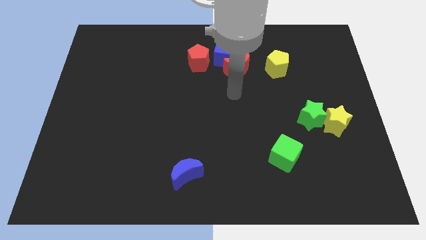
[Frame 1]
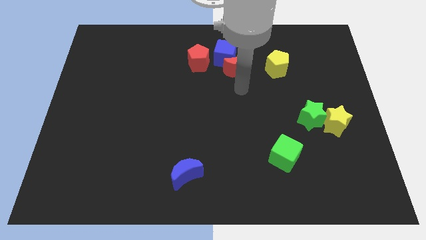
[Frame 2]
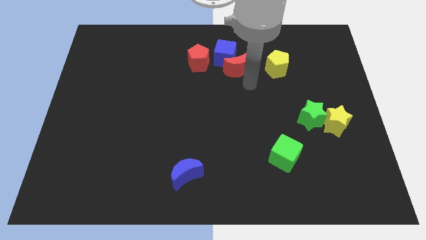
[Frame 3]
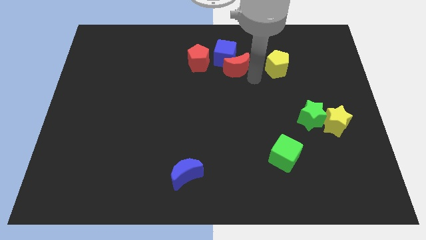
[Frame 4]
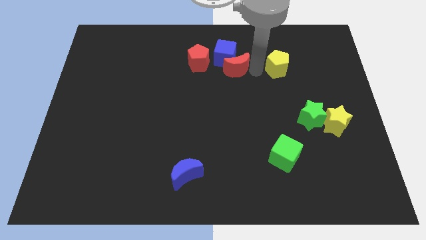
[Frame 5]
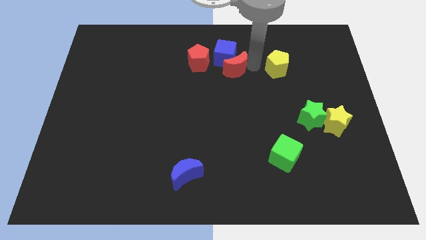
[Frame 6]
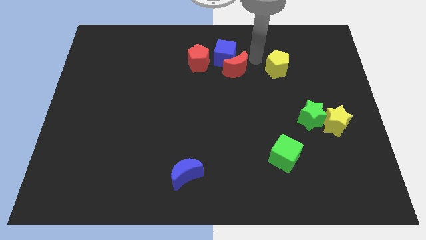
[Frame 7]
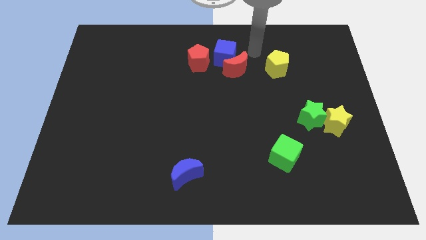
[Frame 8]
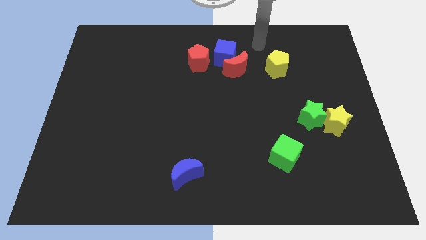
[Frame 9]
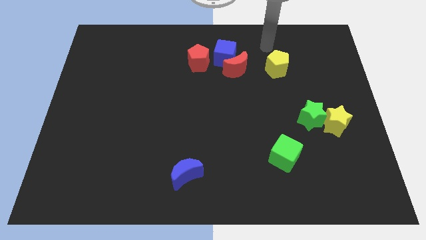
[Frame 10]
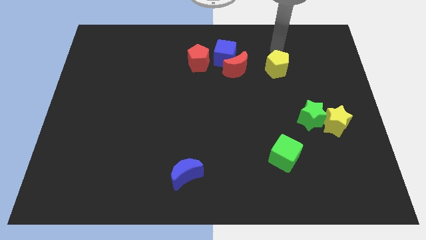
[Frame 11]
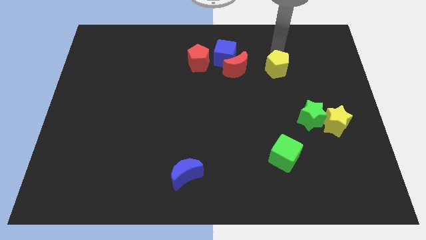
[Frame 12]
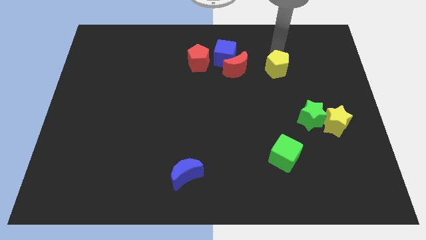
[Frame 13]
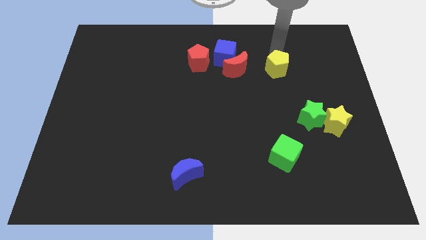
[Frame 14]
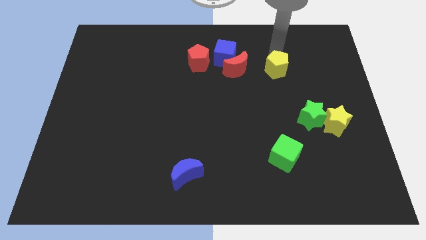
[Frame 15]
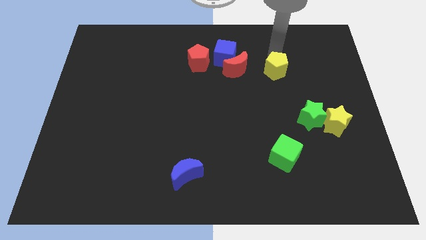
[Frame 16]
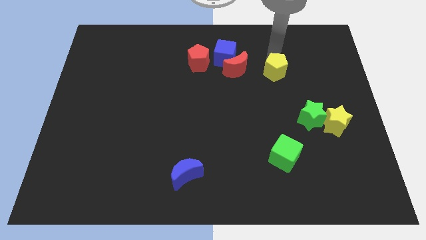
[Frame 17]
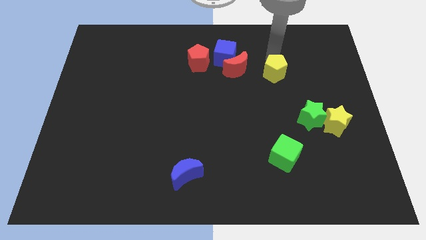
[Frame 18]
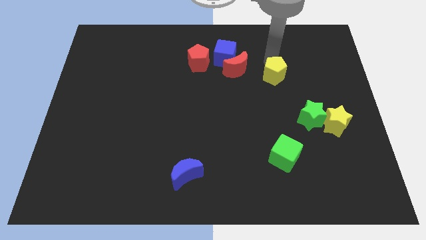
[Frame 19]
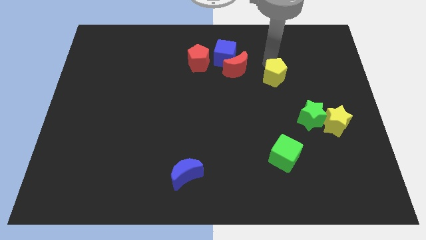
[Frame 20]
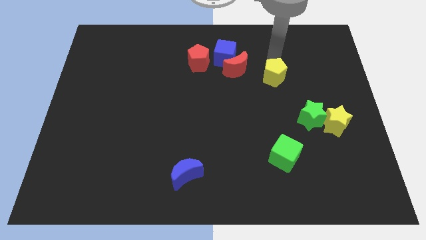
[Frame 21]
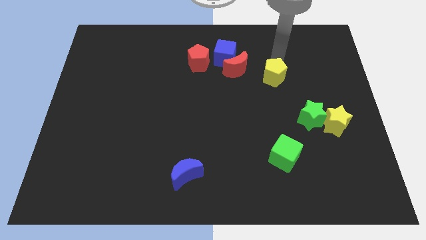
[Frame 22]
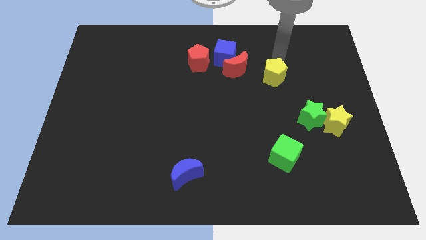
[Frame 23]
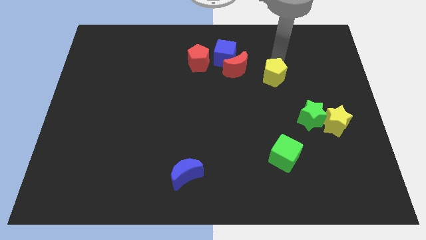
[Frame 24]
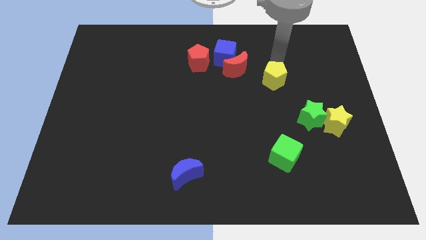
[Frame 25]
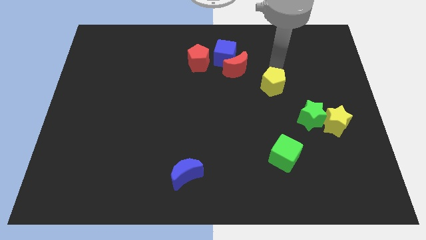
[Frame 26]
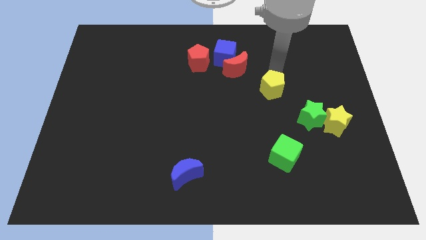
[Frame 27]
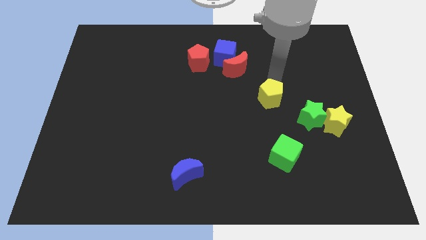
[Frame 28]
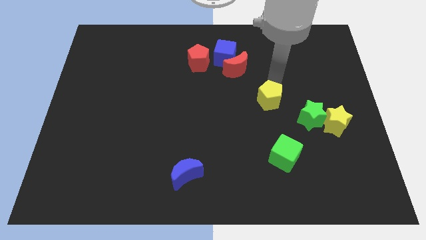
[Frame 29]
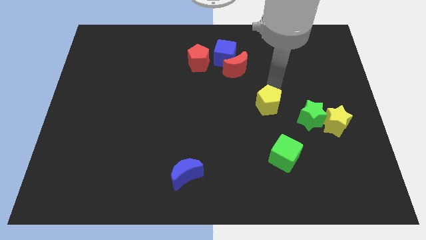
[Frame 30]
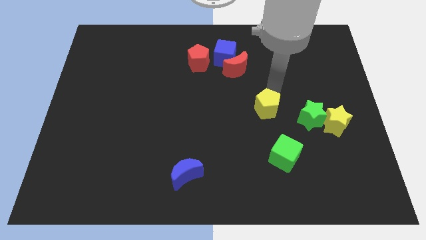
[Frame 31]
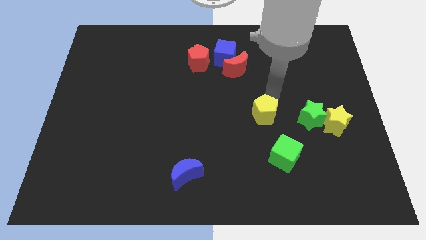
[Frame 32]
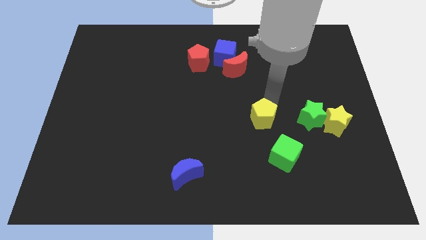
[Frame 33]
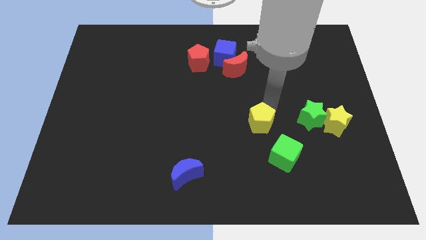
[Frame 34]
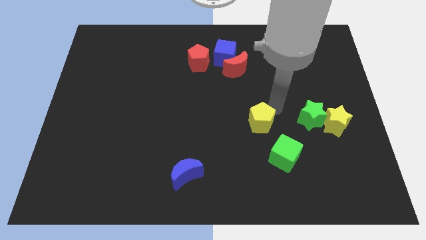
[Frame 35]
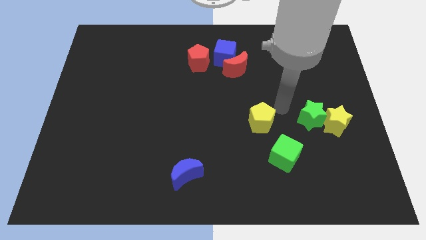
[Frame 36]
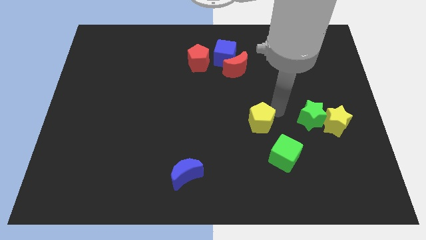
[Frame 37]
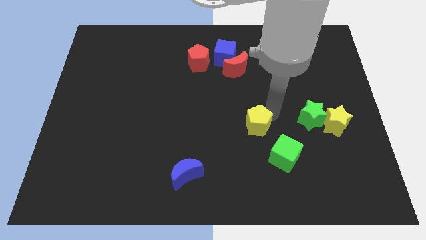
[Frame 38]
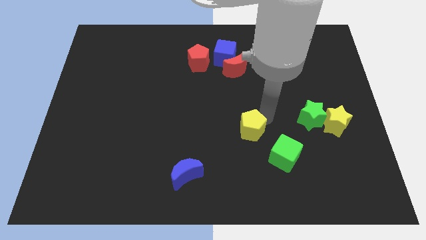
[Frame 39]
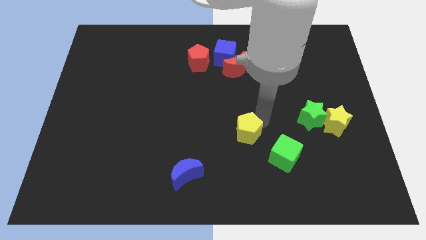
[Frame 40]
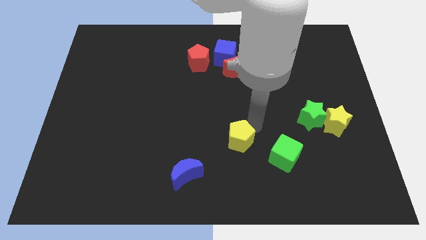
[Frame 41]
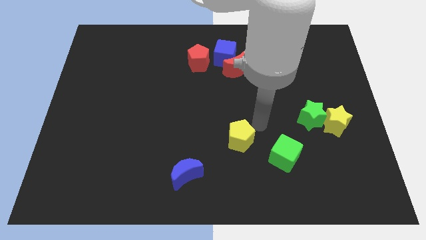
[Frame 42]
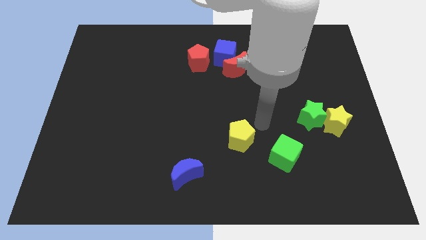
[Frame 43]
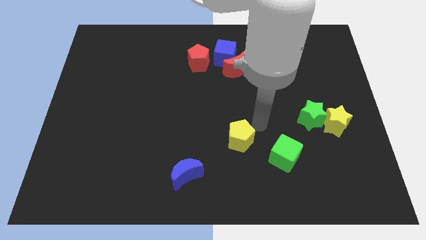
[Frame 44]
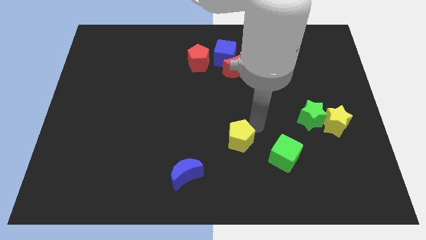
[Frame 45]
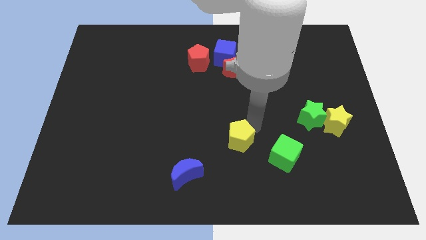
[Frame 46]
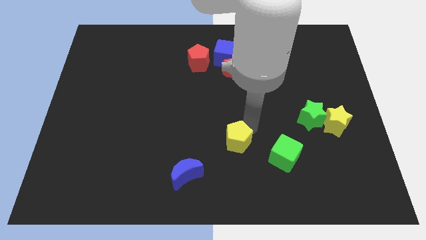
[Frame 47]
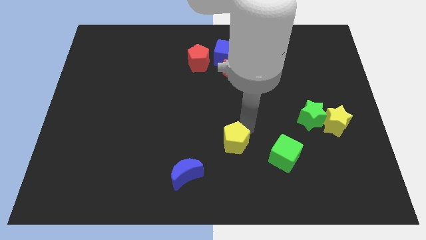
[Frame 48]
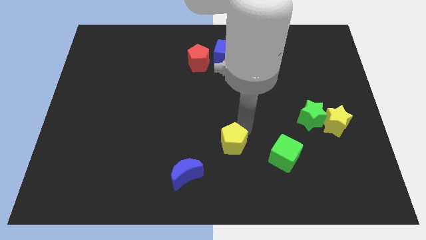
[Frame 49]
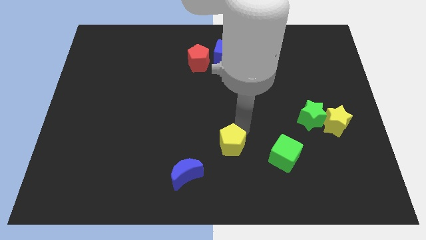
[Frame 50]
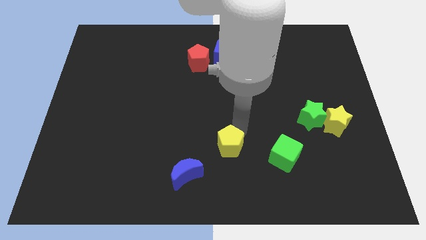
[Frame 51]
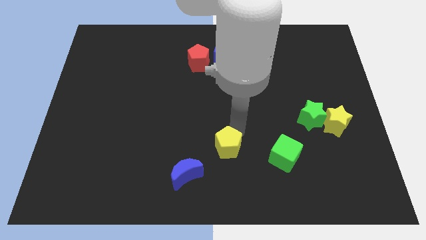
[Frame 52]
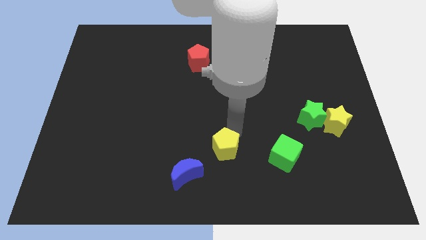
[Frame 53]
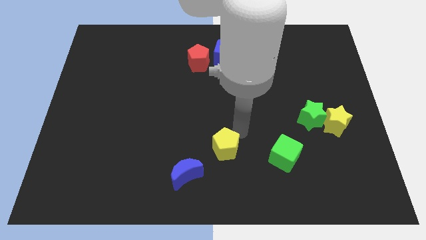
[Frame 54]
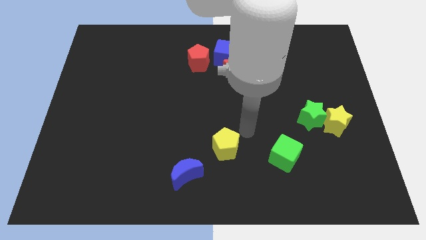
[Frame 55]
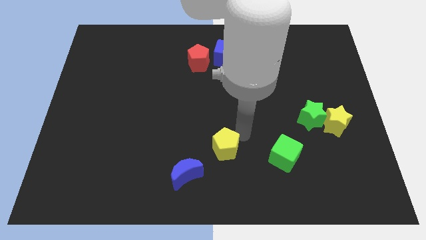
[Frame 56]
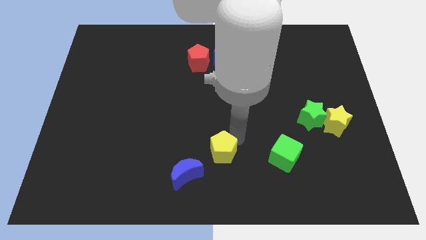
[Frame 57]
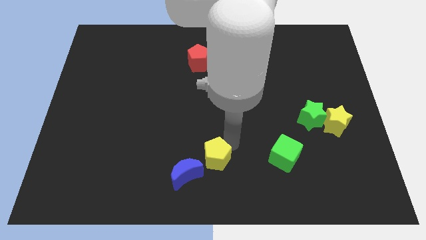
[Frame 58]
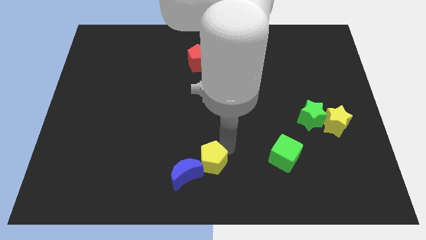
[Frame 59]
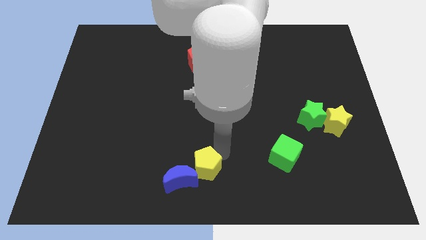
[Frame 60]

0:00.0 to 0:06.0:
move the yellow pentagon next to the blue moon

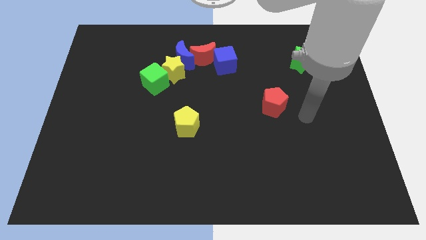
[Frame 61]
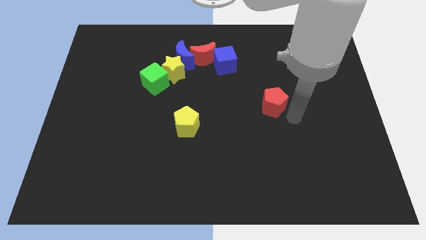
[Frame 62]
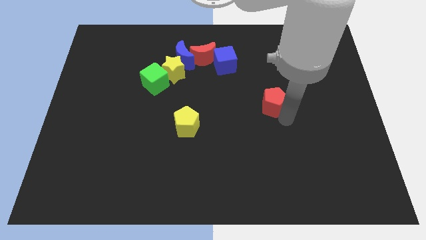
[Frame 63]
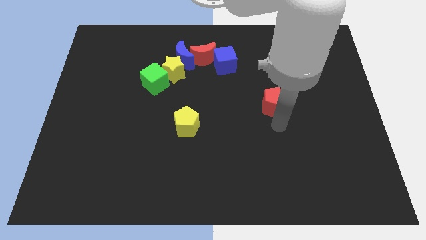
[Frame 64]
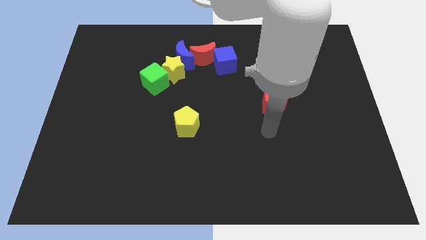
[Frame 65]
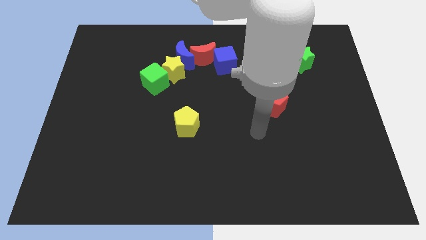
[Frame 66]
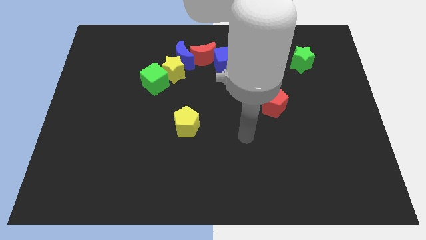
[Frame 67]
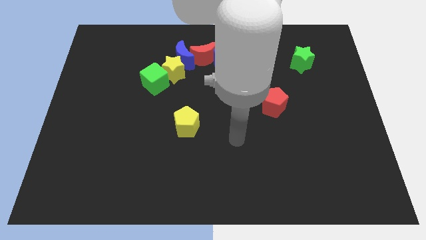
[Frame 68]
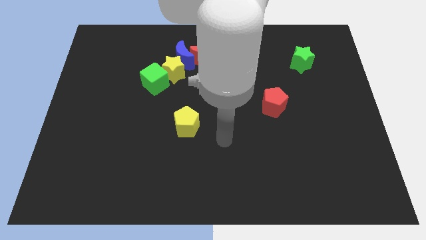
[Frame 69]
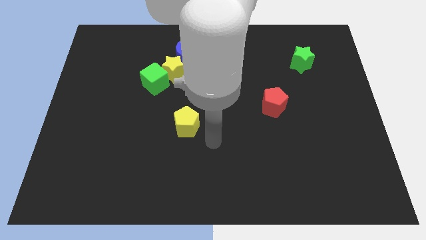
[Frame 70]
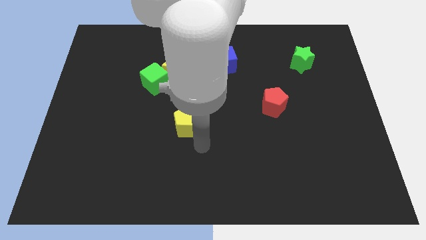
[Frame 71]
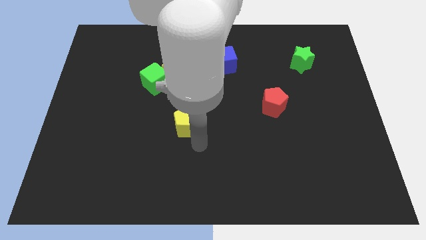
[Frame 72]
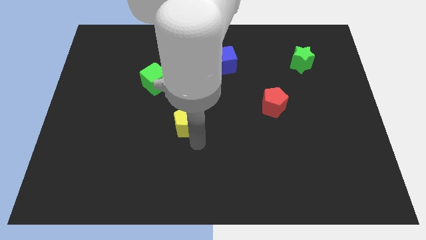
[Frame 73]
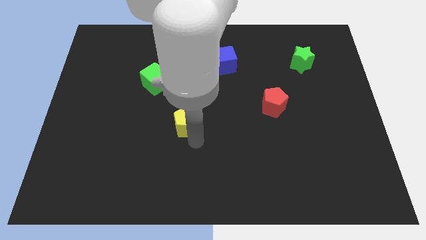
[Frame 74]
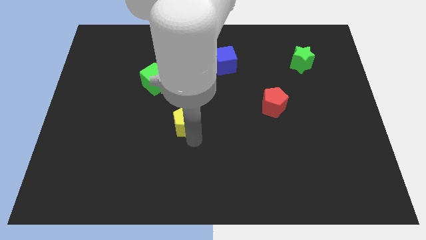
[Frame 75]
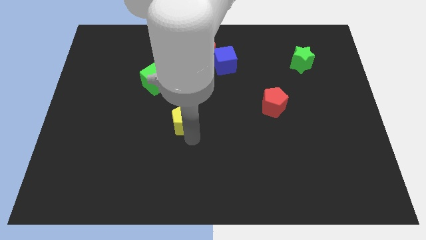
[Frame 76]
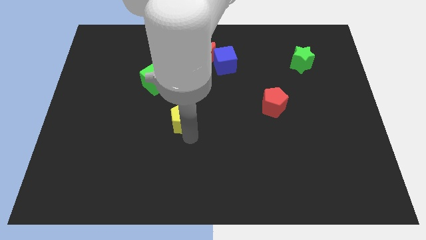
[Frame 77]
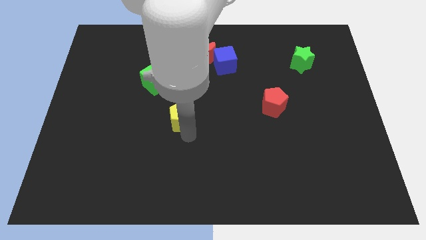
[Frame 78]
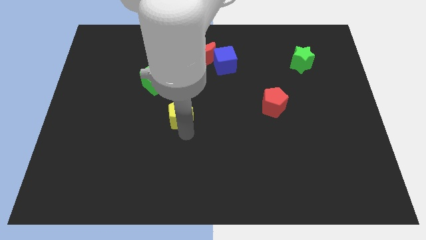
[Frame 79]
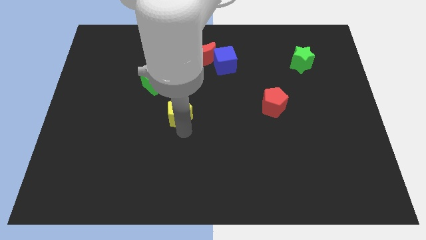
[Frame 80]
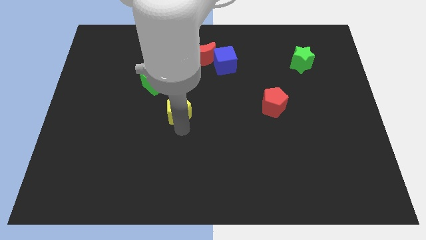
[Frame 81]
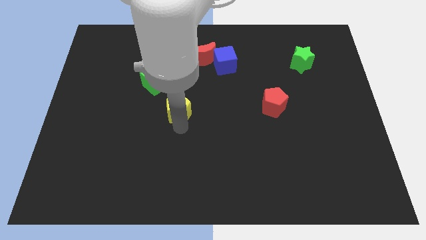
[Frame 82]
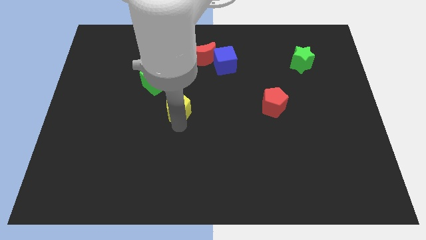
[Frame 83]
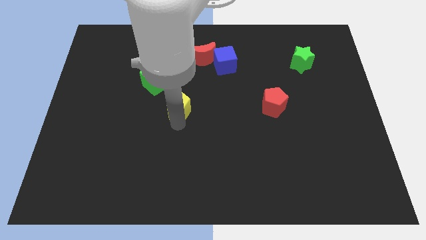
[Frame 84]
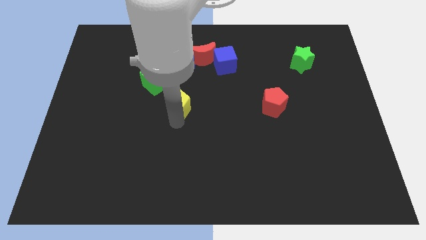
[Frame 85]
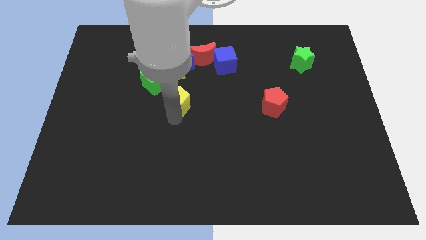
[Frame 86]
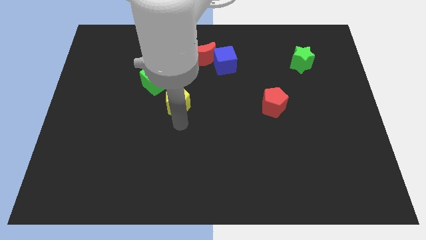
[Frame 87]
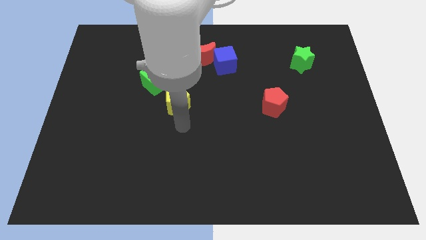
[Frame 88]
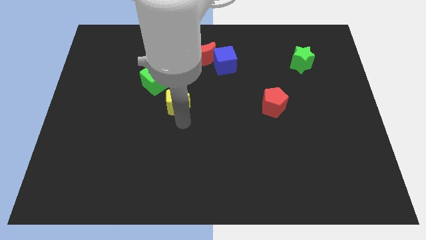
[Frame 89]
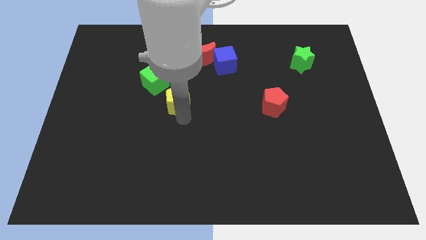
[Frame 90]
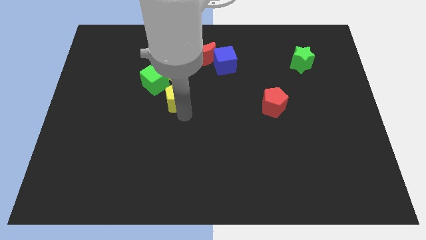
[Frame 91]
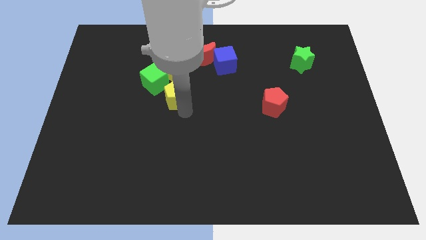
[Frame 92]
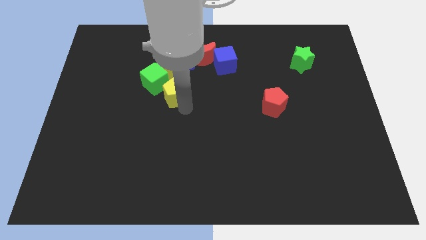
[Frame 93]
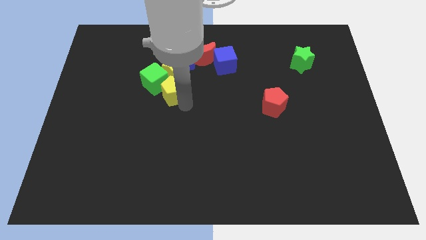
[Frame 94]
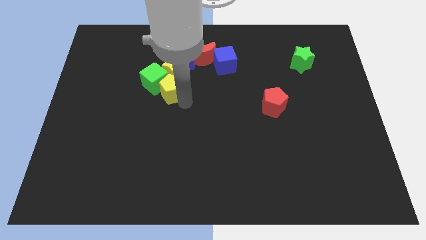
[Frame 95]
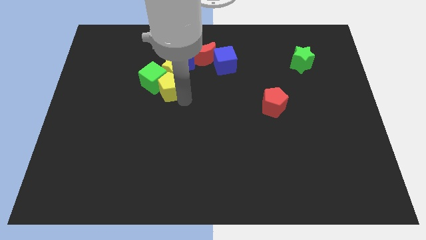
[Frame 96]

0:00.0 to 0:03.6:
push the yellow pentagon next to the yellow star
